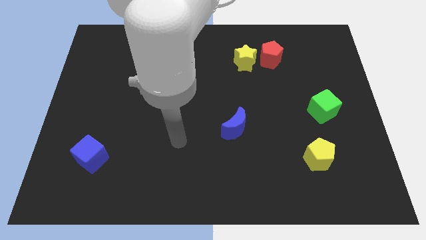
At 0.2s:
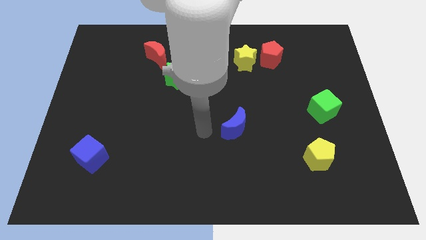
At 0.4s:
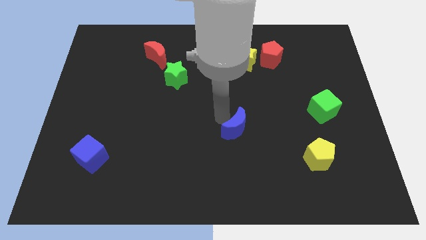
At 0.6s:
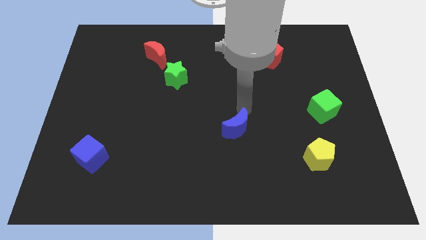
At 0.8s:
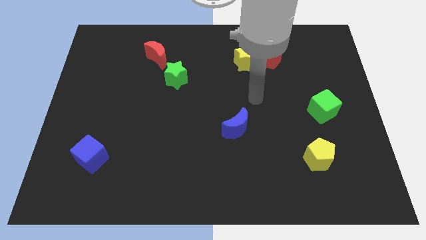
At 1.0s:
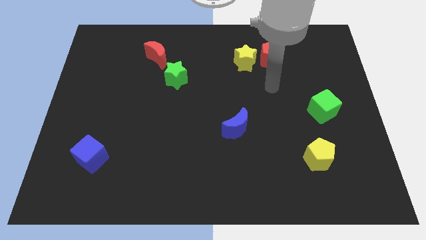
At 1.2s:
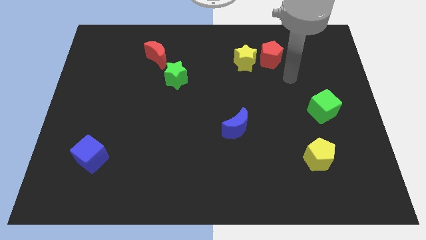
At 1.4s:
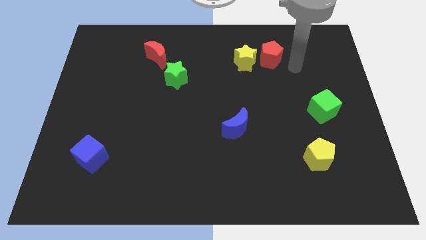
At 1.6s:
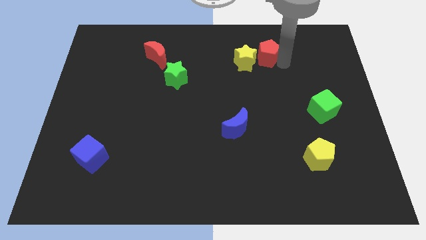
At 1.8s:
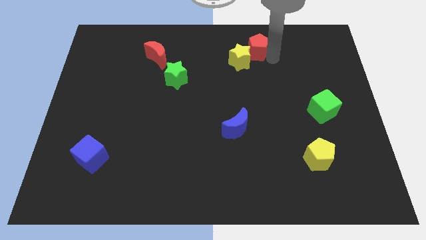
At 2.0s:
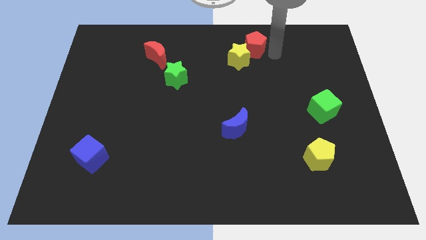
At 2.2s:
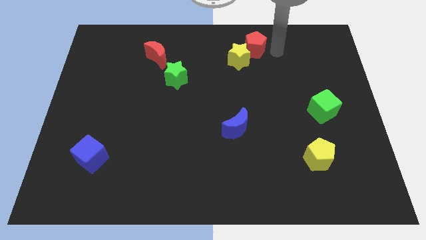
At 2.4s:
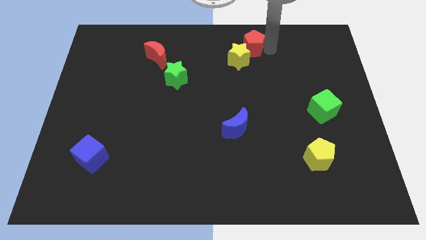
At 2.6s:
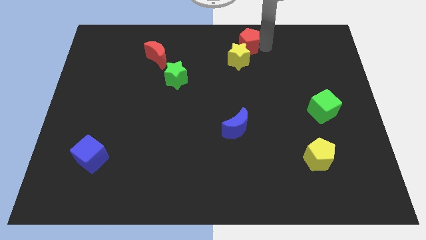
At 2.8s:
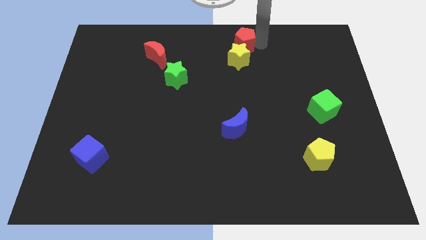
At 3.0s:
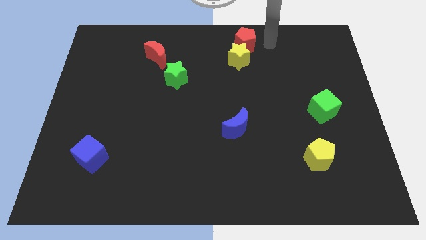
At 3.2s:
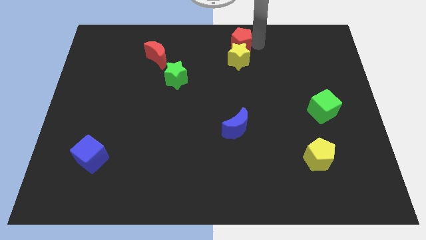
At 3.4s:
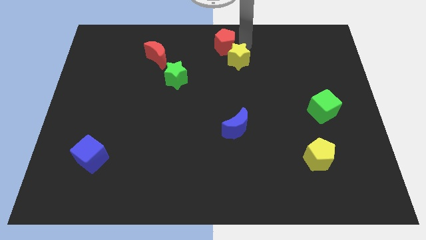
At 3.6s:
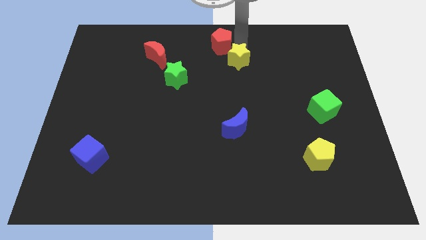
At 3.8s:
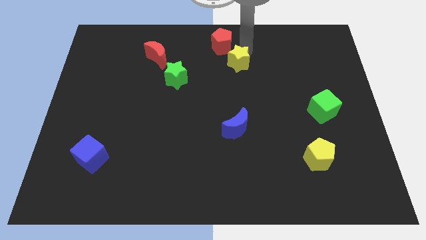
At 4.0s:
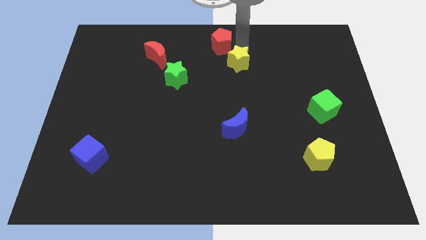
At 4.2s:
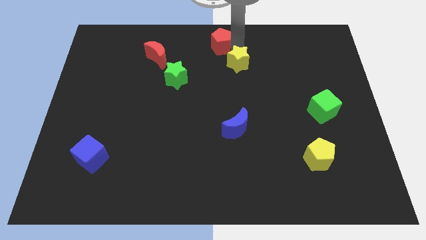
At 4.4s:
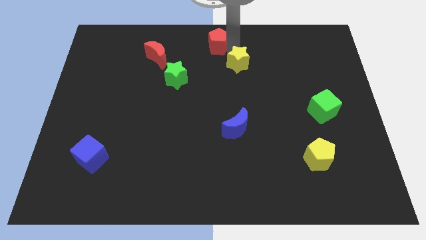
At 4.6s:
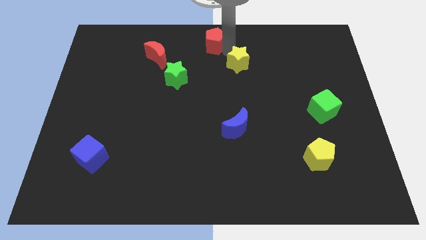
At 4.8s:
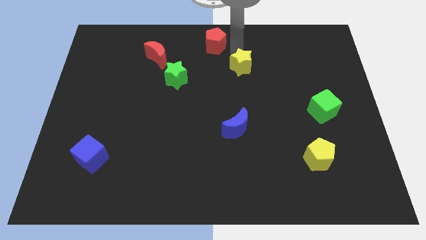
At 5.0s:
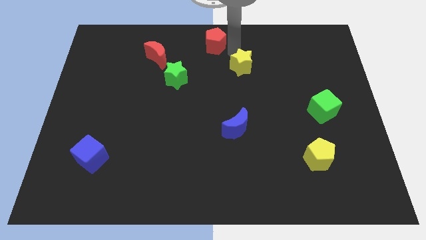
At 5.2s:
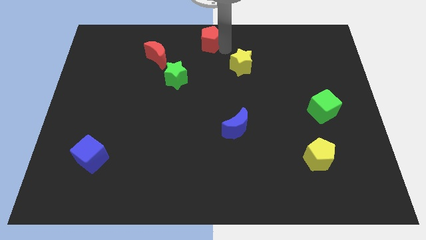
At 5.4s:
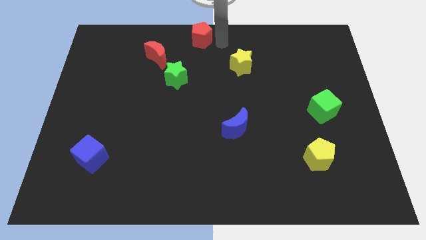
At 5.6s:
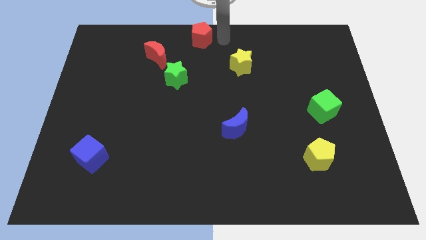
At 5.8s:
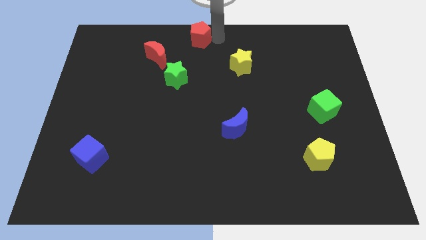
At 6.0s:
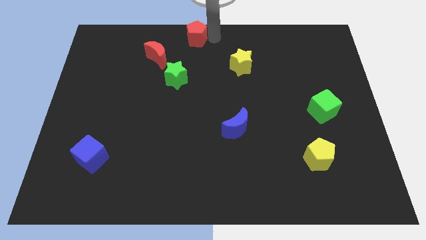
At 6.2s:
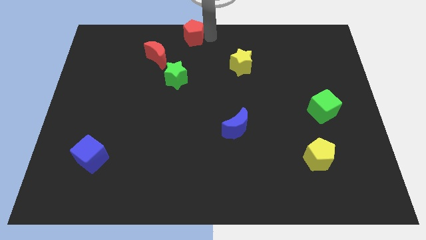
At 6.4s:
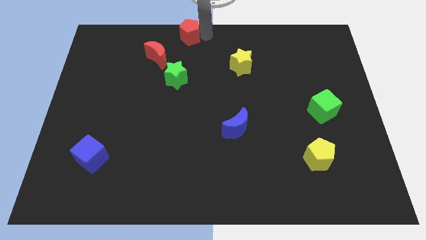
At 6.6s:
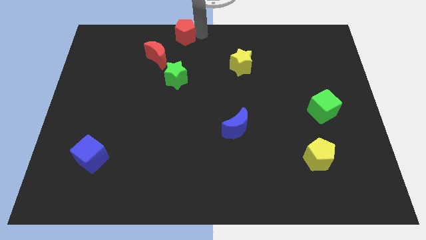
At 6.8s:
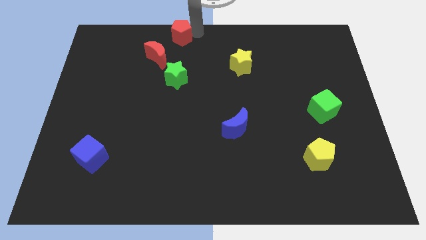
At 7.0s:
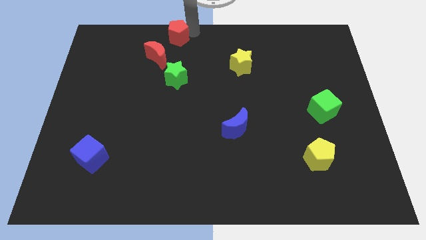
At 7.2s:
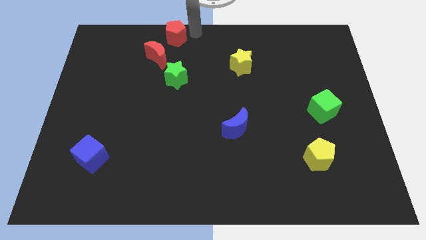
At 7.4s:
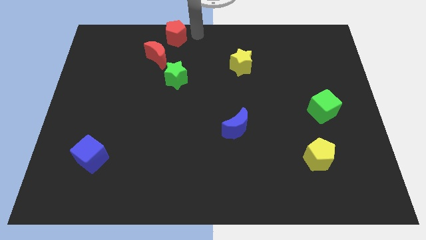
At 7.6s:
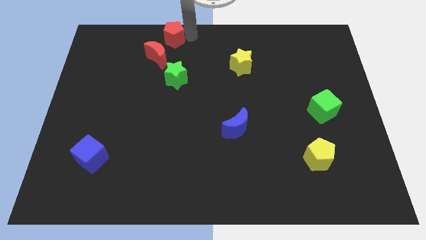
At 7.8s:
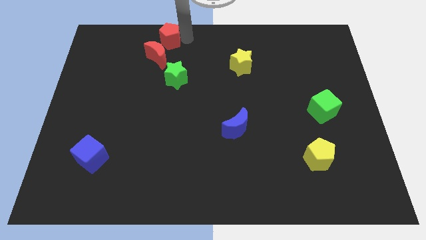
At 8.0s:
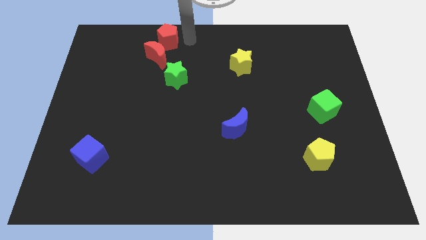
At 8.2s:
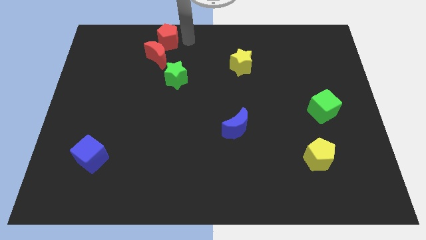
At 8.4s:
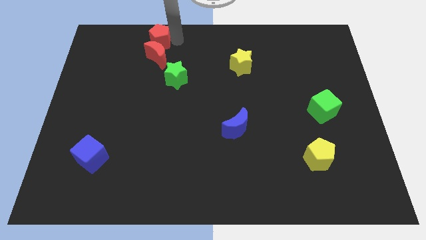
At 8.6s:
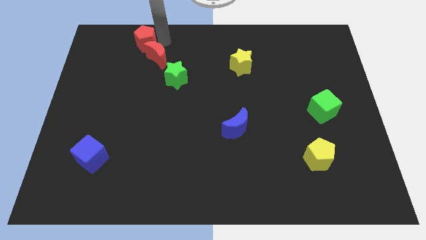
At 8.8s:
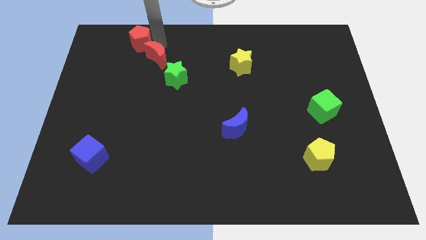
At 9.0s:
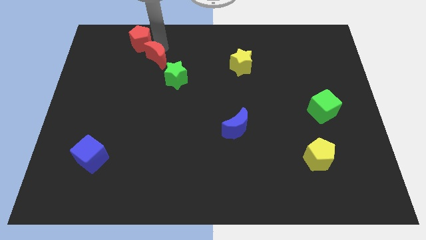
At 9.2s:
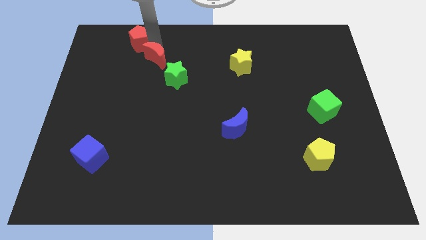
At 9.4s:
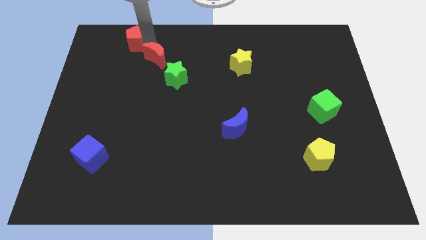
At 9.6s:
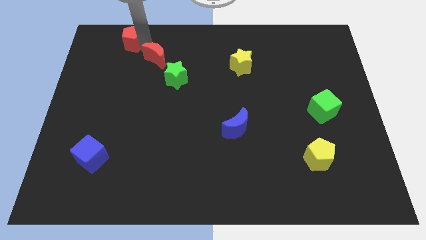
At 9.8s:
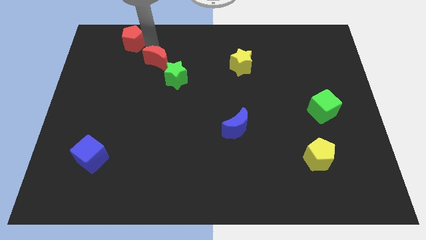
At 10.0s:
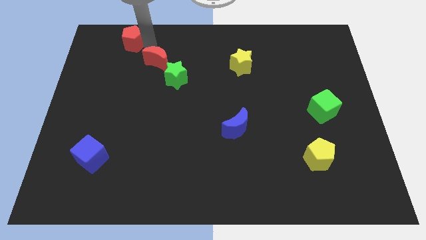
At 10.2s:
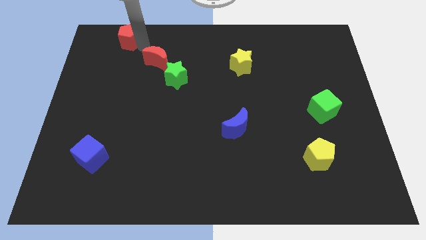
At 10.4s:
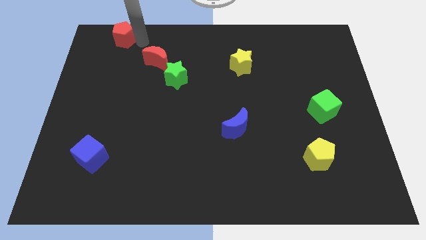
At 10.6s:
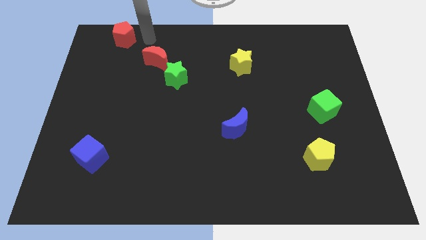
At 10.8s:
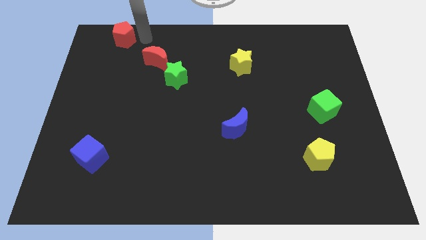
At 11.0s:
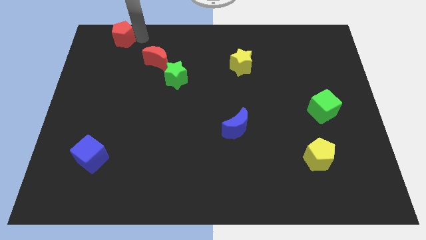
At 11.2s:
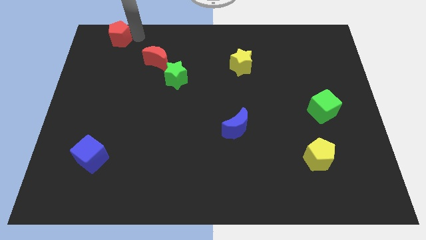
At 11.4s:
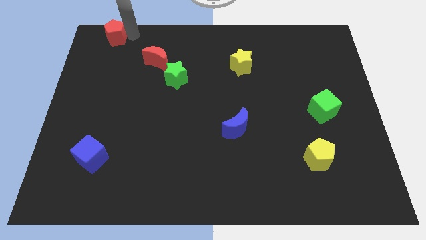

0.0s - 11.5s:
move the red pentagon to the top left
